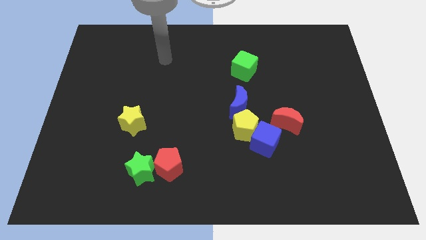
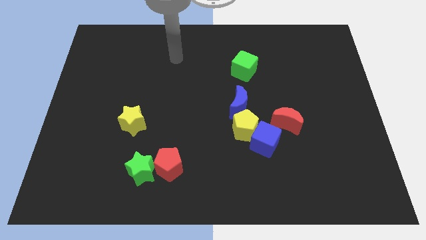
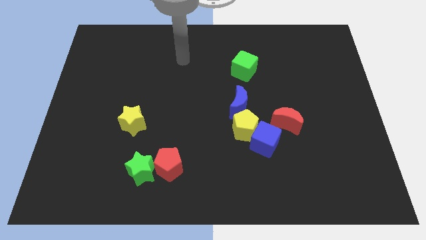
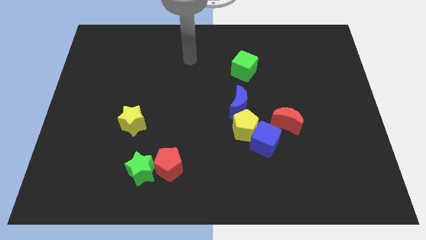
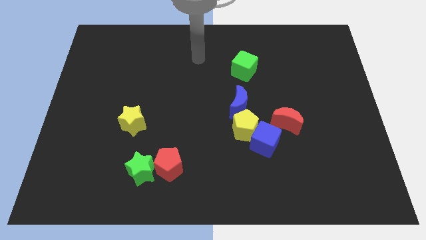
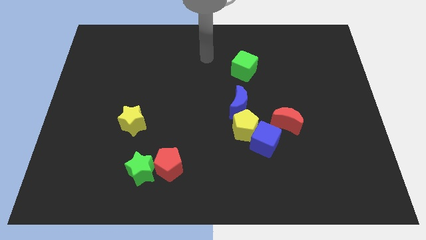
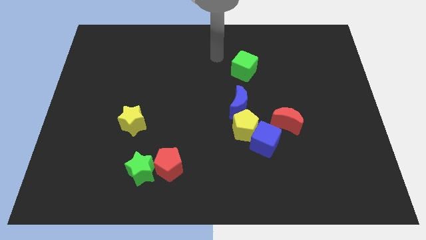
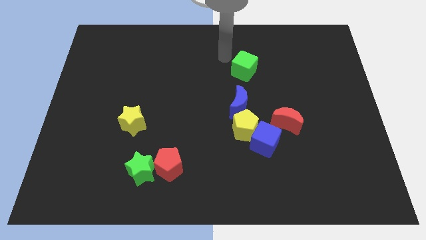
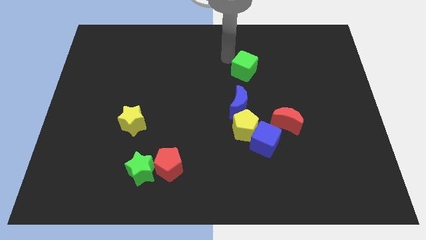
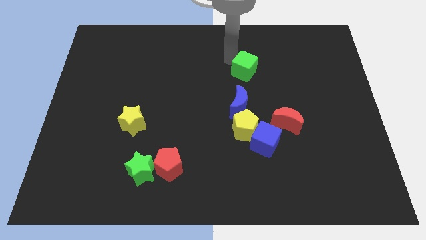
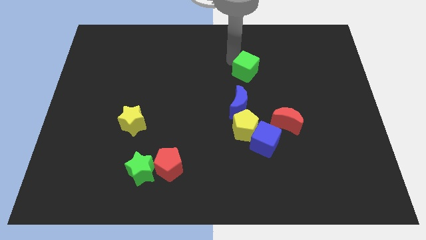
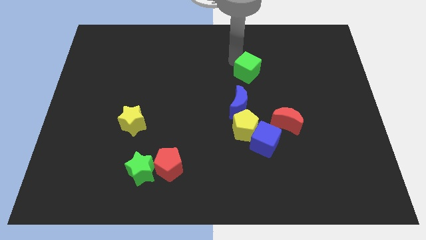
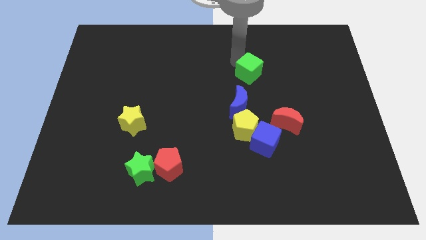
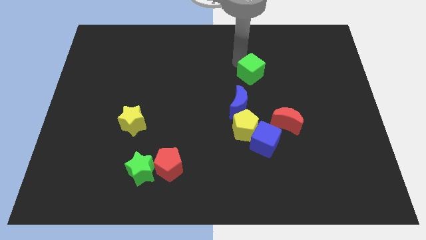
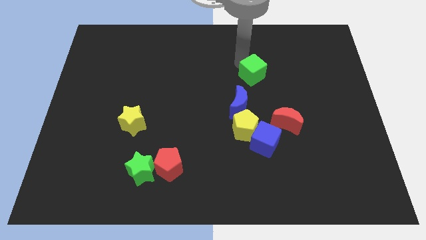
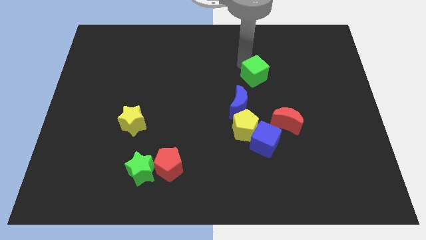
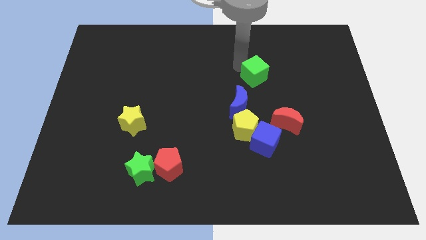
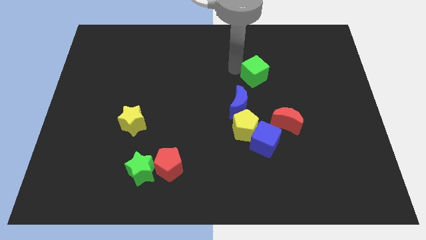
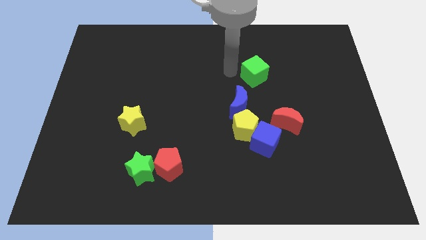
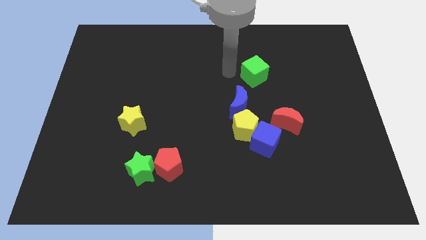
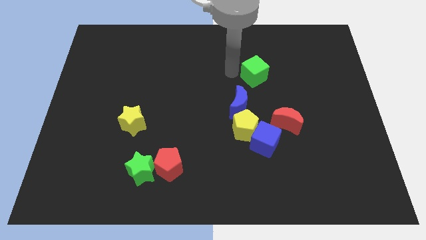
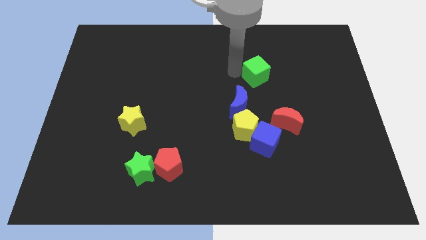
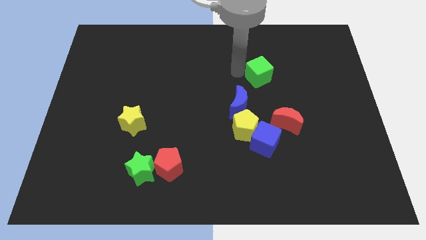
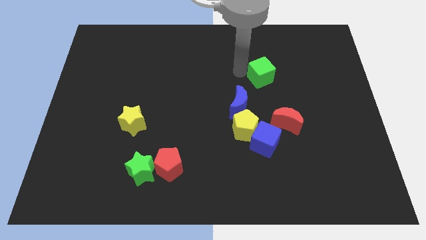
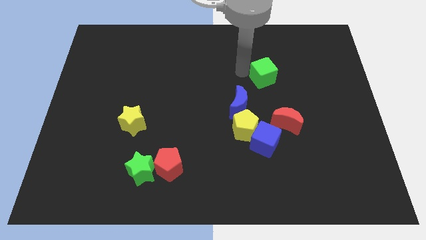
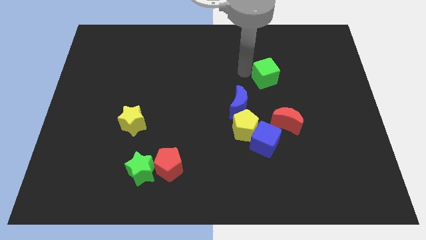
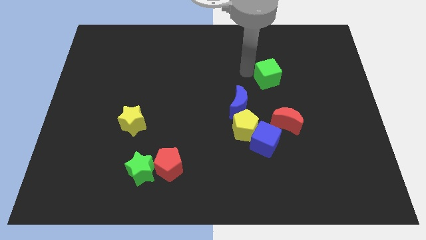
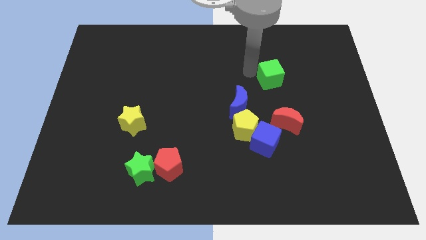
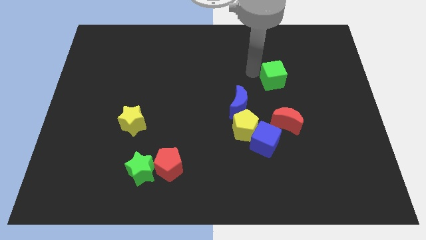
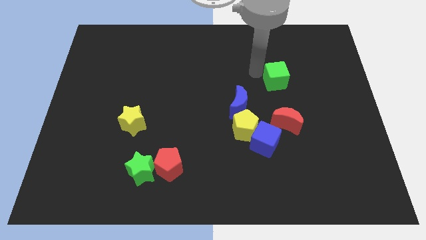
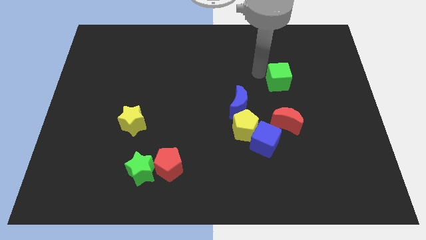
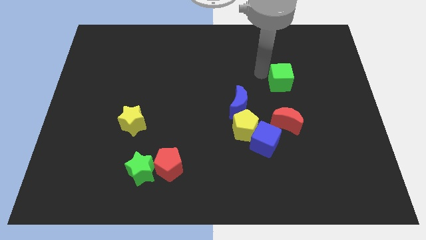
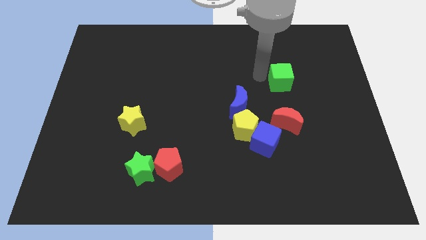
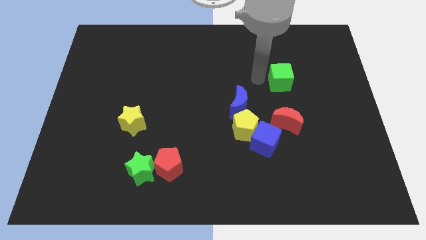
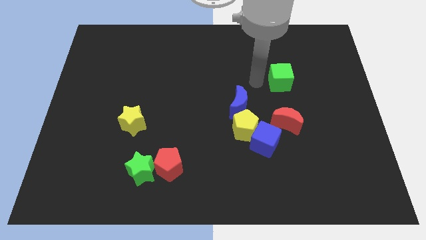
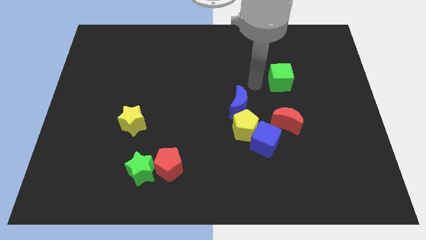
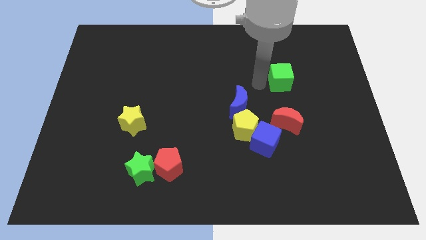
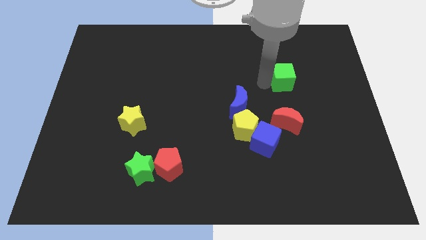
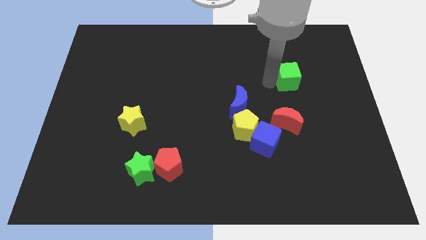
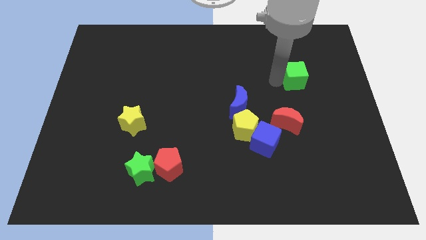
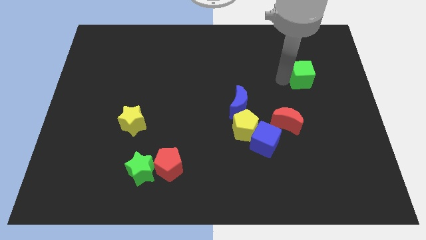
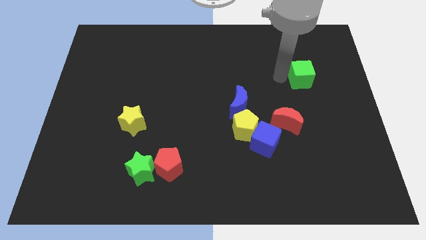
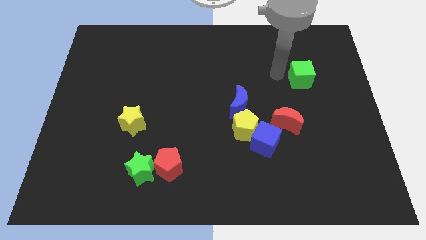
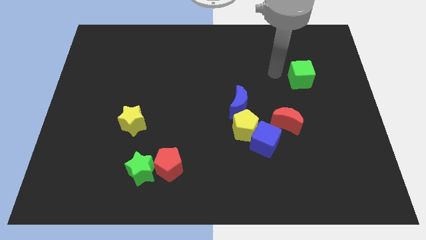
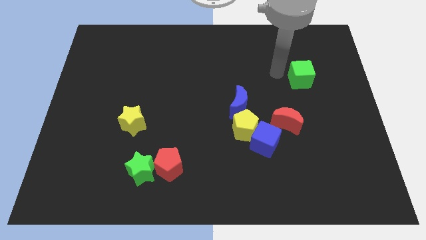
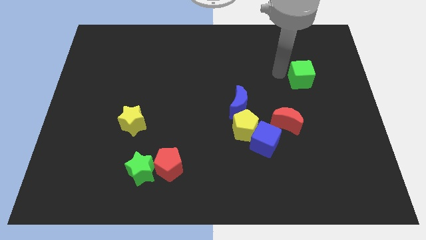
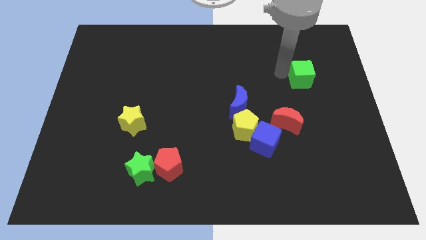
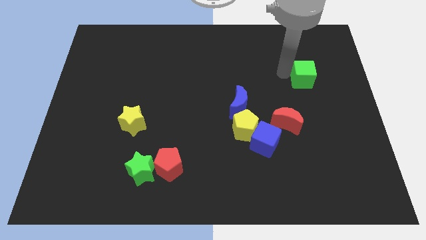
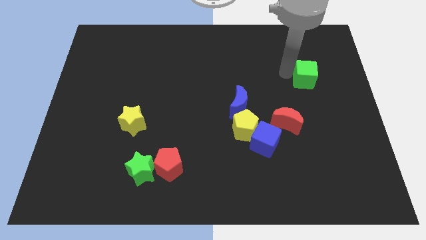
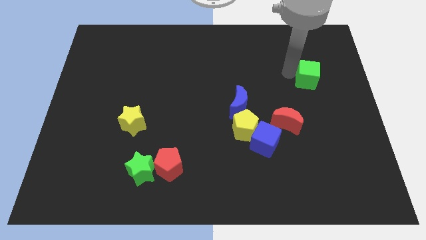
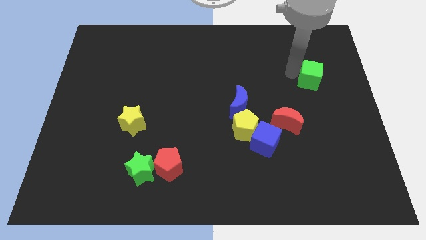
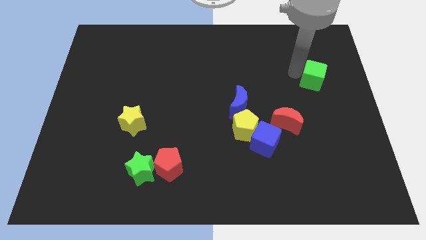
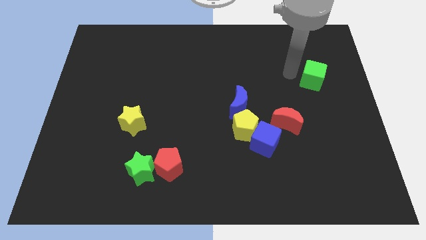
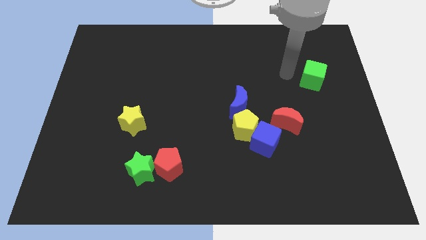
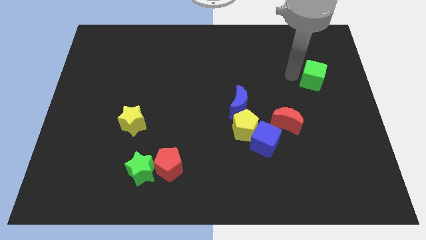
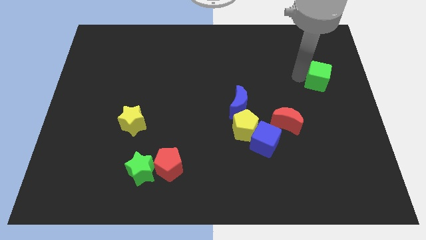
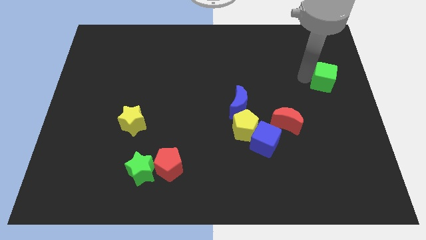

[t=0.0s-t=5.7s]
slide the green cube to the right side

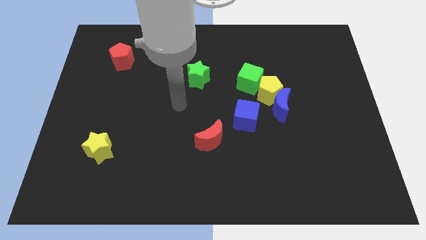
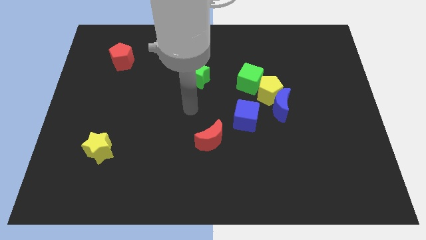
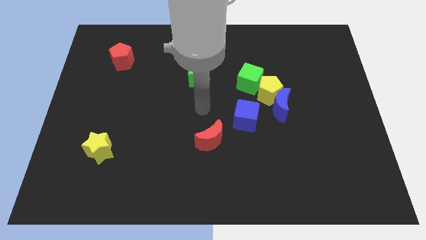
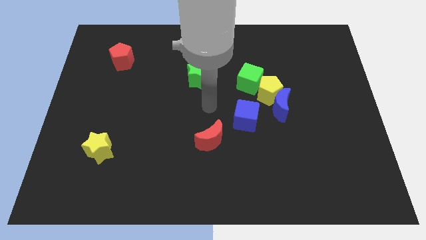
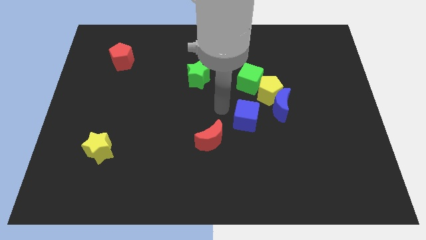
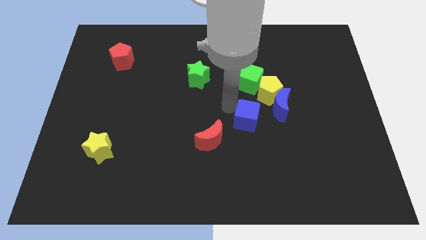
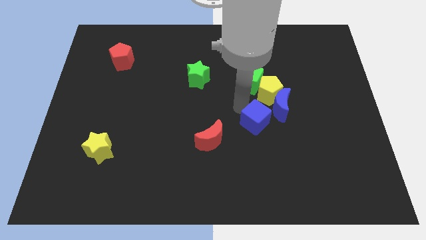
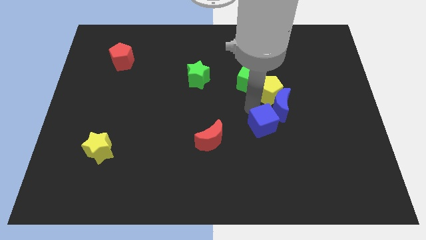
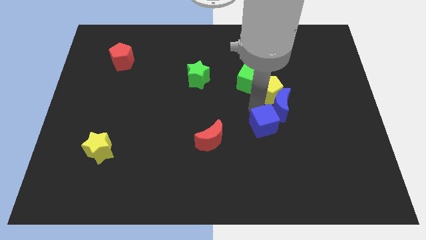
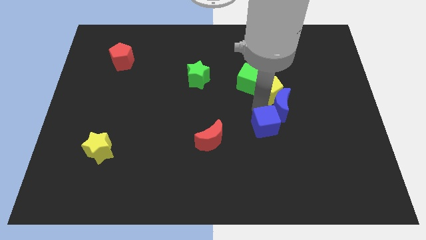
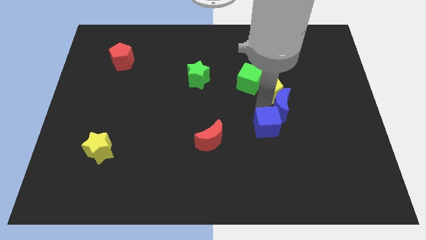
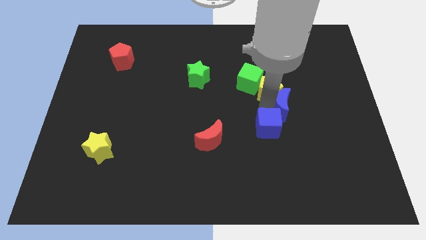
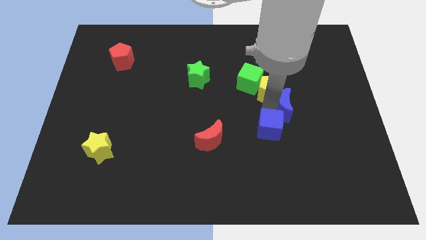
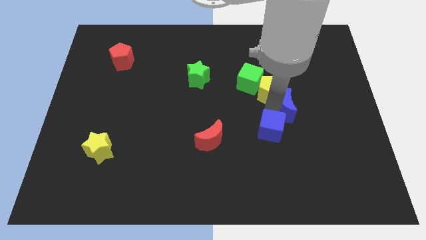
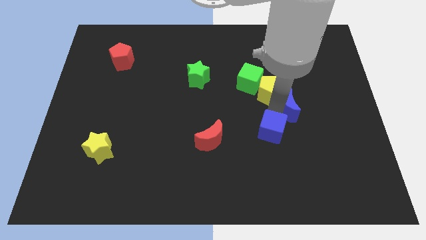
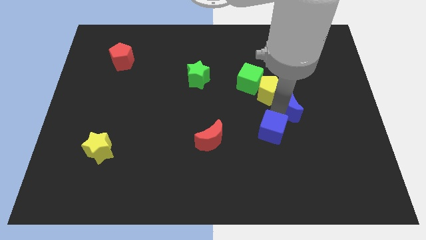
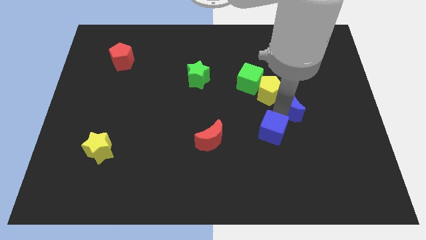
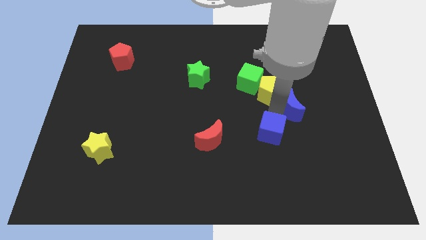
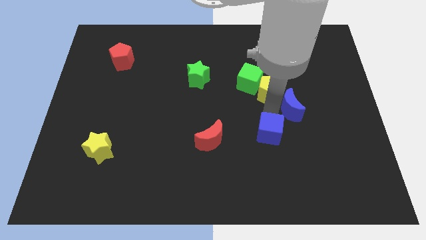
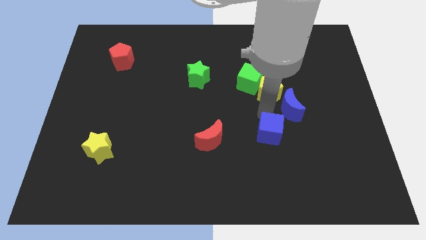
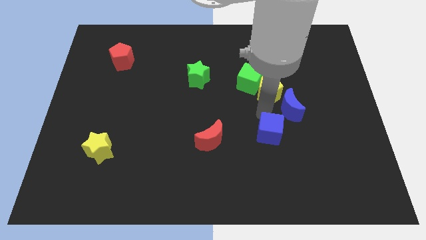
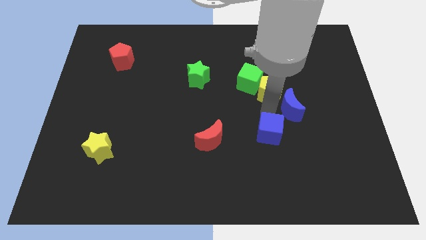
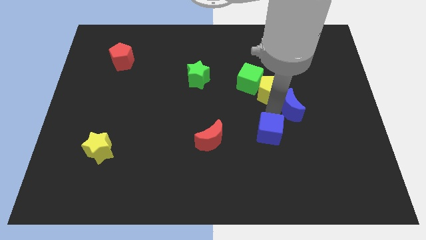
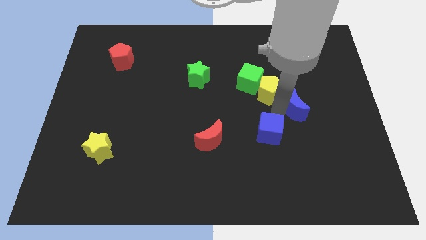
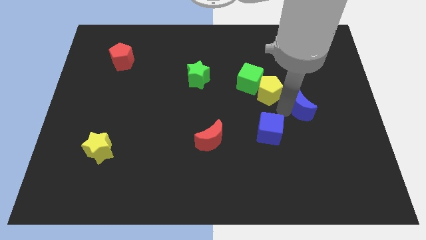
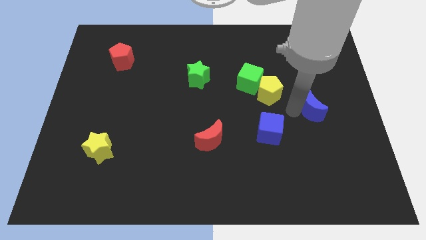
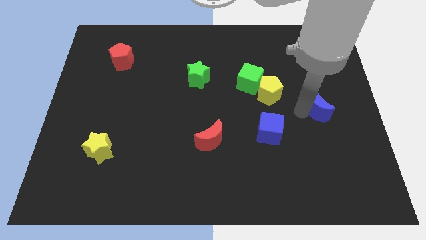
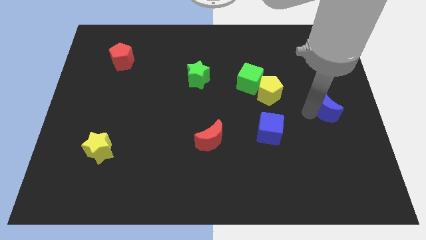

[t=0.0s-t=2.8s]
move the blue moon to the right side
